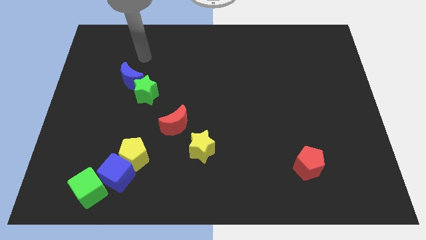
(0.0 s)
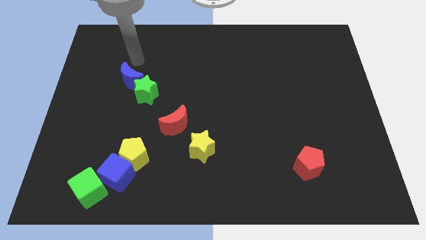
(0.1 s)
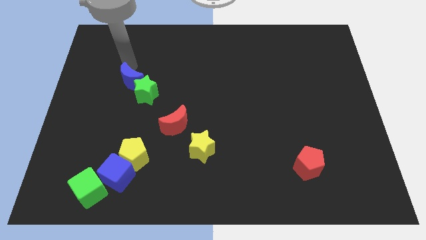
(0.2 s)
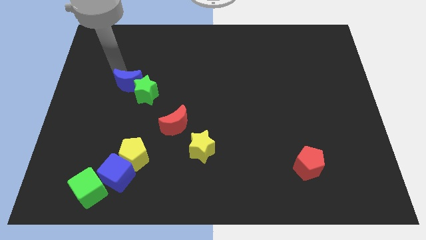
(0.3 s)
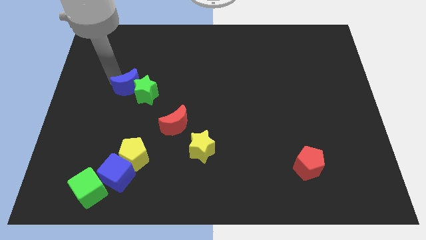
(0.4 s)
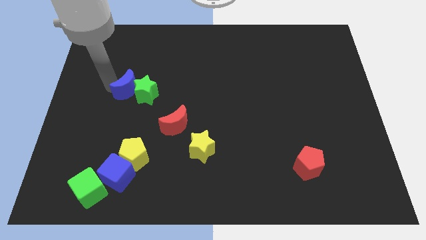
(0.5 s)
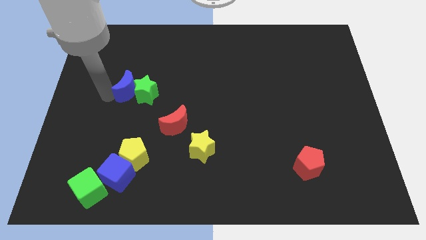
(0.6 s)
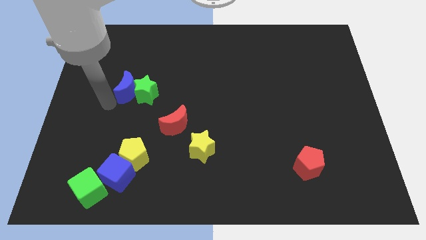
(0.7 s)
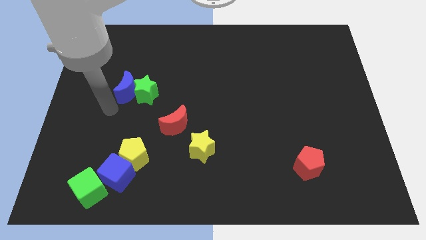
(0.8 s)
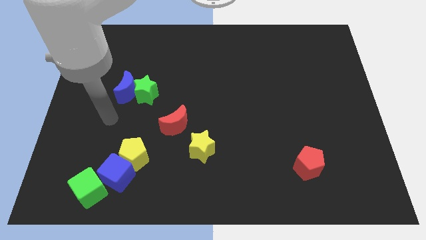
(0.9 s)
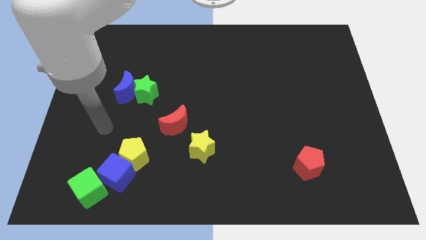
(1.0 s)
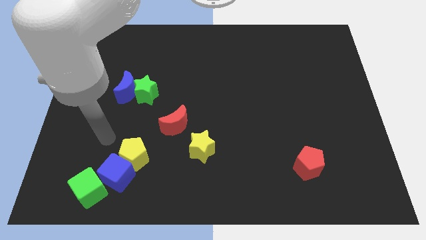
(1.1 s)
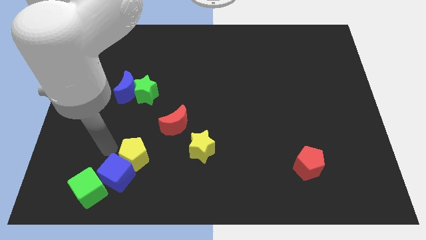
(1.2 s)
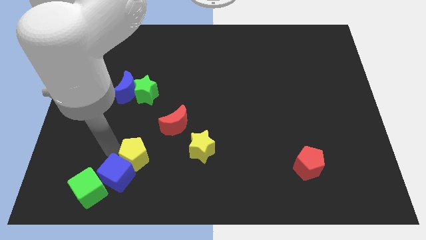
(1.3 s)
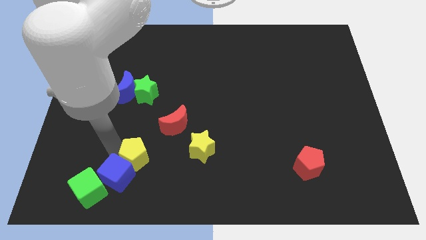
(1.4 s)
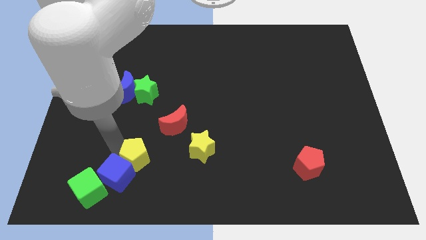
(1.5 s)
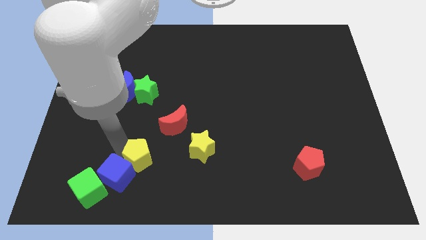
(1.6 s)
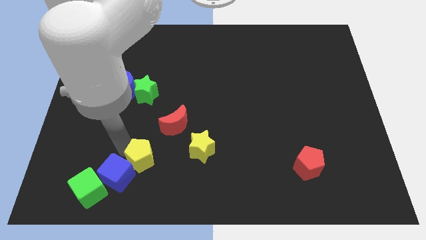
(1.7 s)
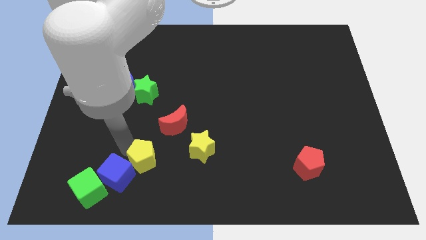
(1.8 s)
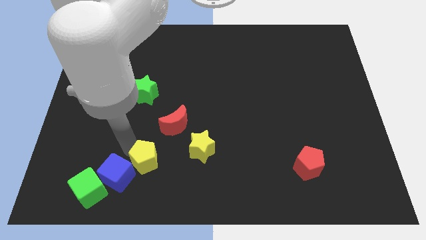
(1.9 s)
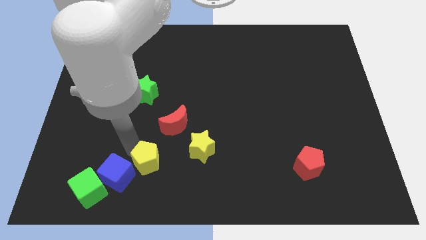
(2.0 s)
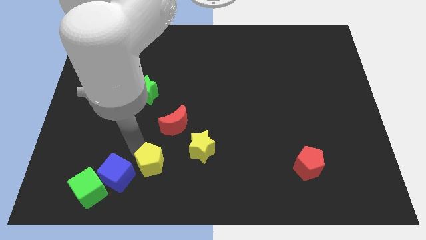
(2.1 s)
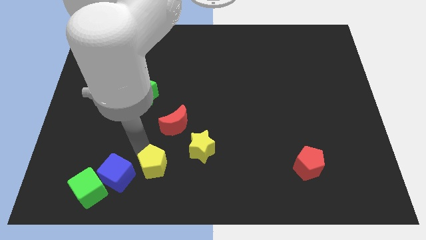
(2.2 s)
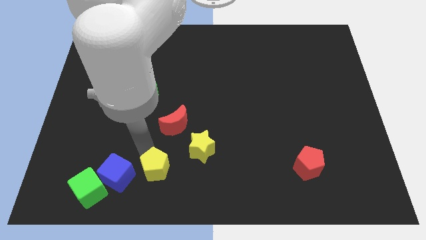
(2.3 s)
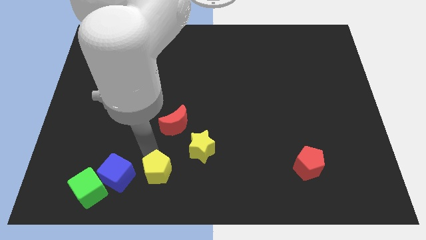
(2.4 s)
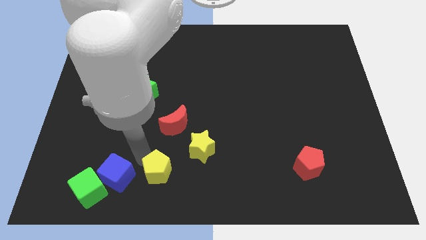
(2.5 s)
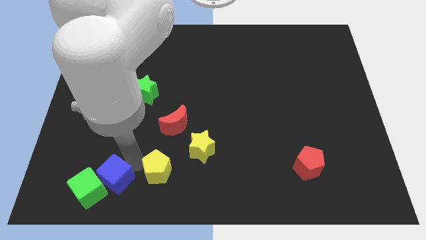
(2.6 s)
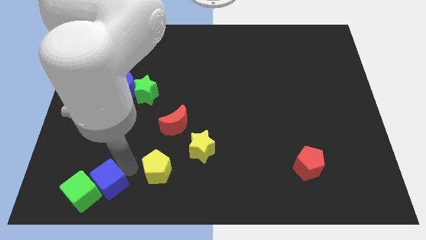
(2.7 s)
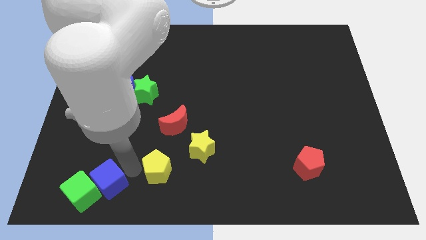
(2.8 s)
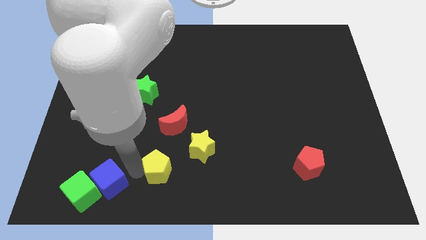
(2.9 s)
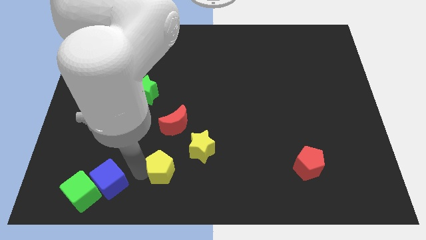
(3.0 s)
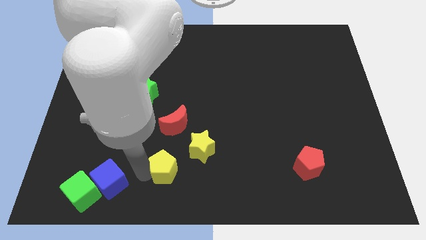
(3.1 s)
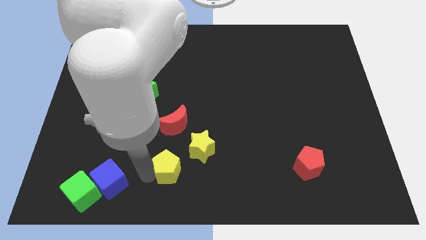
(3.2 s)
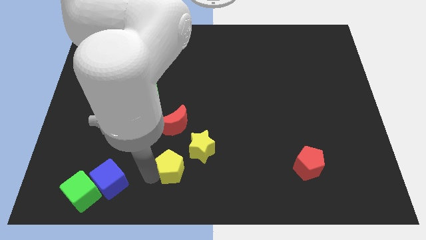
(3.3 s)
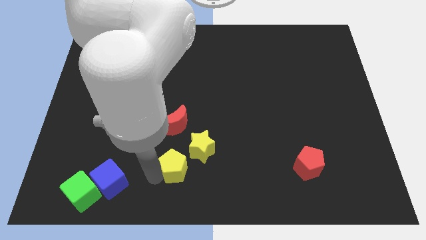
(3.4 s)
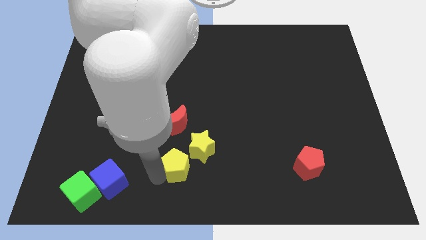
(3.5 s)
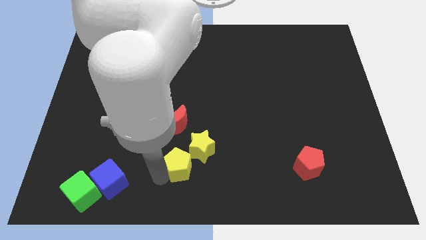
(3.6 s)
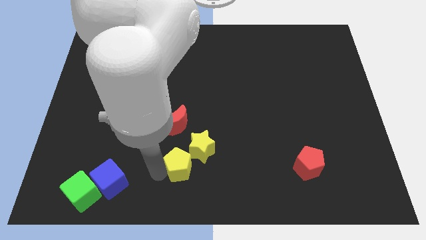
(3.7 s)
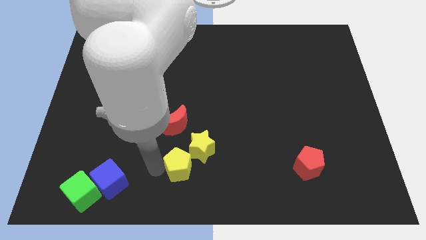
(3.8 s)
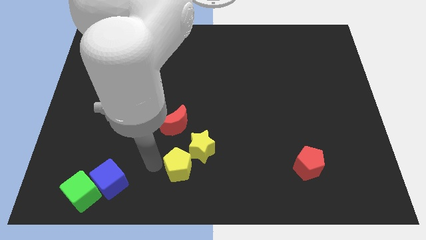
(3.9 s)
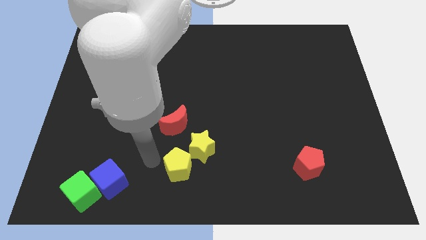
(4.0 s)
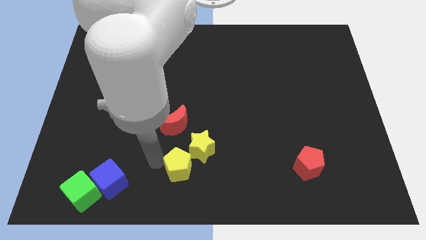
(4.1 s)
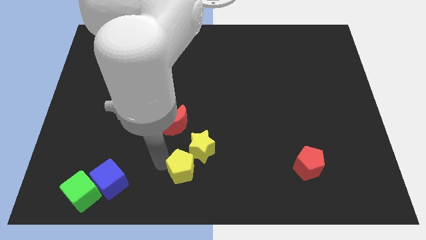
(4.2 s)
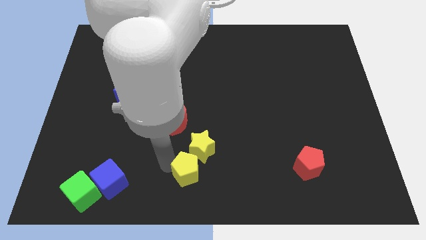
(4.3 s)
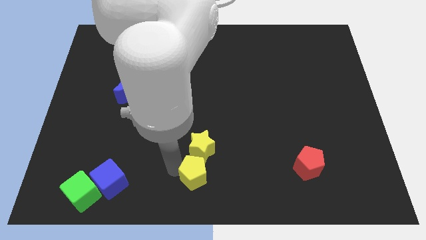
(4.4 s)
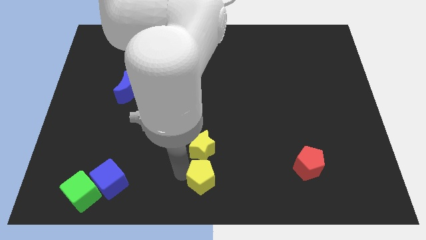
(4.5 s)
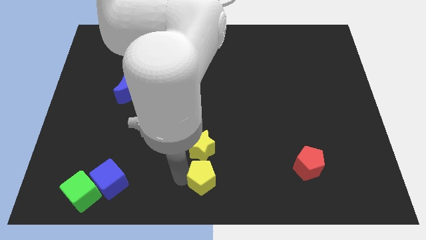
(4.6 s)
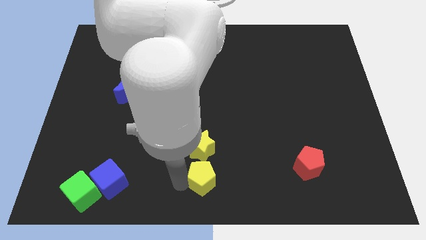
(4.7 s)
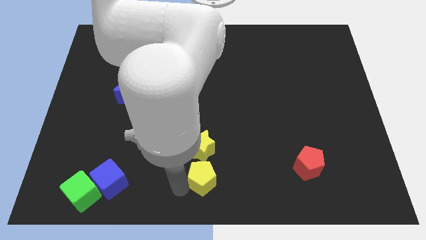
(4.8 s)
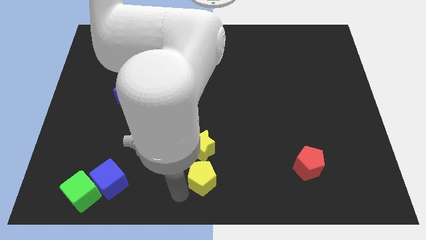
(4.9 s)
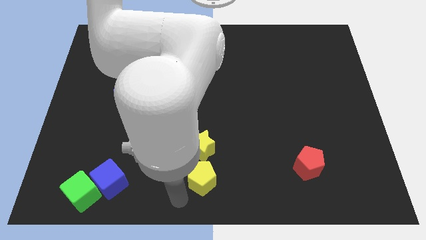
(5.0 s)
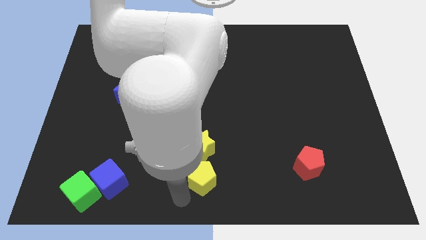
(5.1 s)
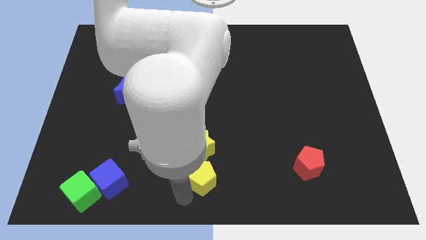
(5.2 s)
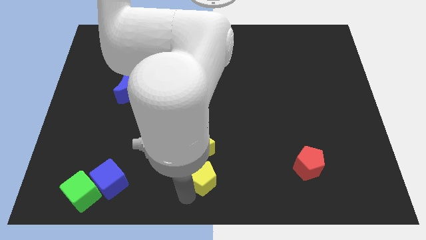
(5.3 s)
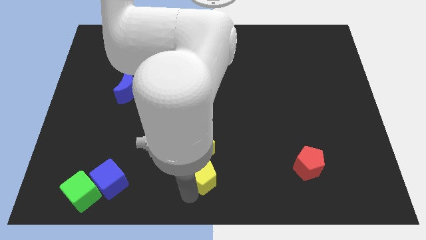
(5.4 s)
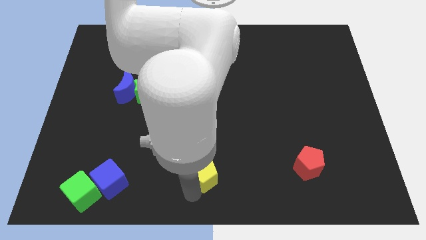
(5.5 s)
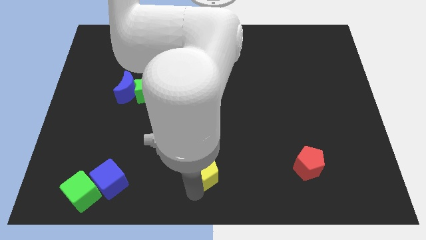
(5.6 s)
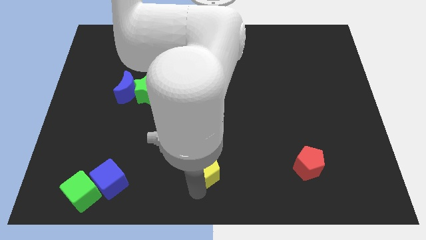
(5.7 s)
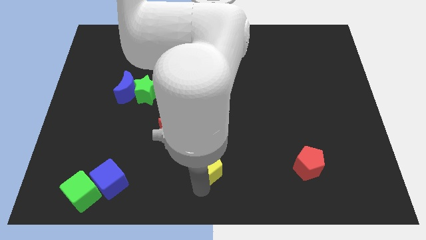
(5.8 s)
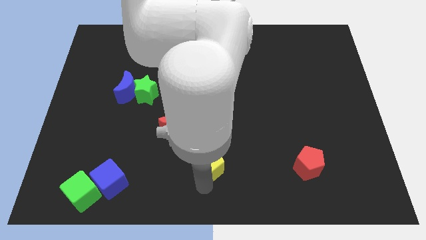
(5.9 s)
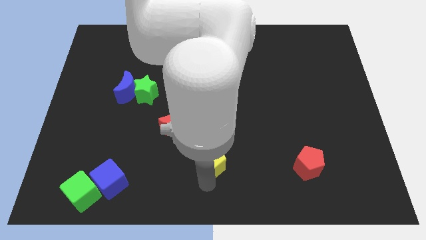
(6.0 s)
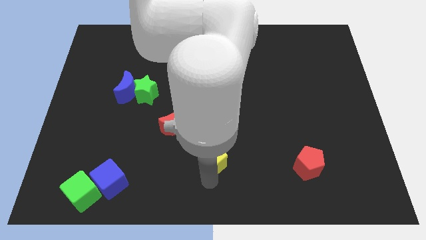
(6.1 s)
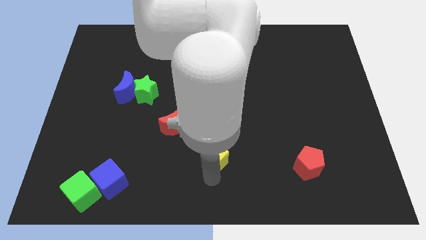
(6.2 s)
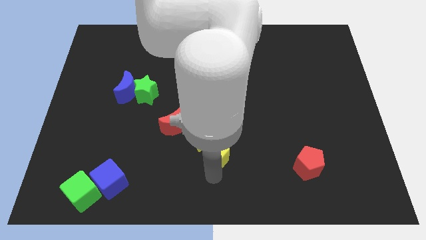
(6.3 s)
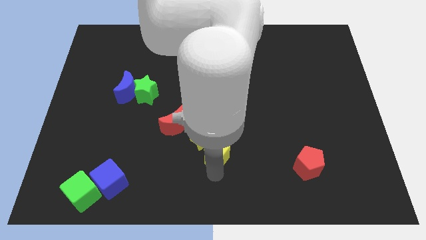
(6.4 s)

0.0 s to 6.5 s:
move the yellow pentagon to the right side of the yellow star

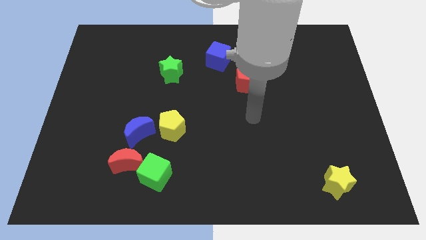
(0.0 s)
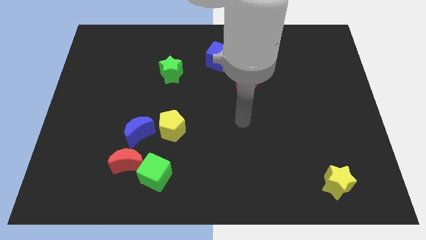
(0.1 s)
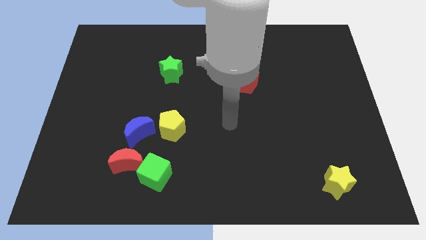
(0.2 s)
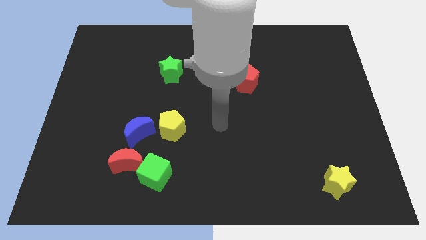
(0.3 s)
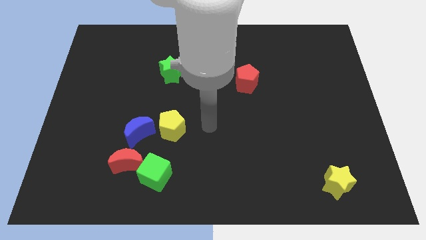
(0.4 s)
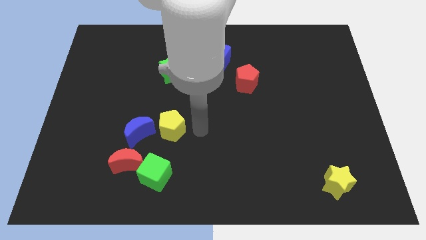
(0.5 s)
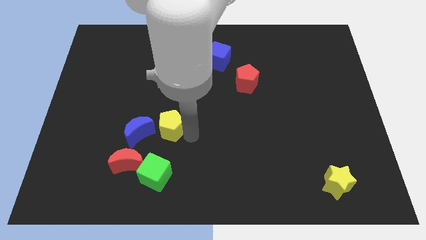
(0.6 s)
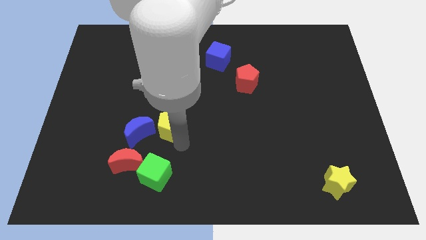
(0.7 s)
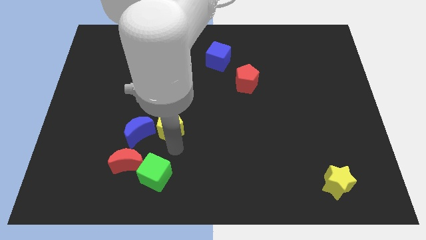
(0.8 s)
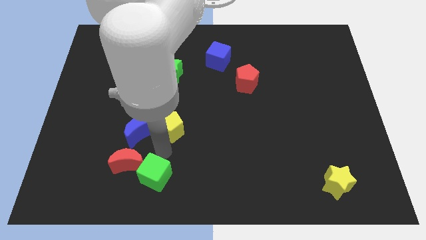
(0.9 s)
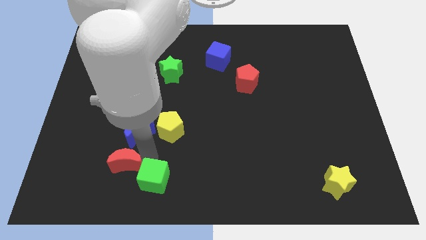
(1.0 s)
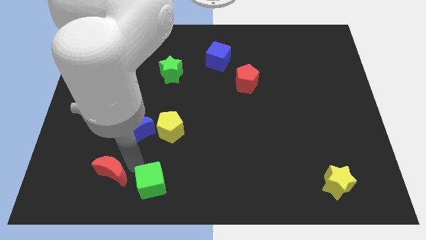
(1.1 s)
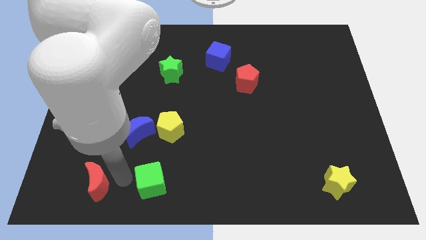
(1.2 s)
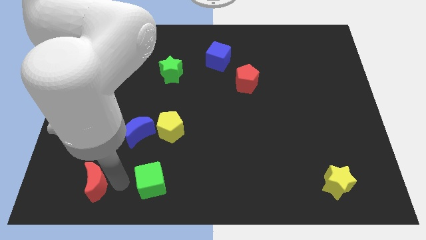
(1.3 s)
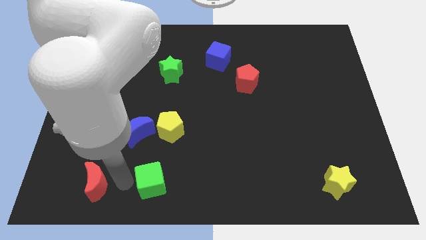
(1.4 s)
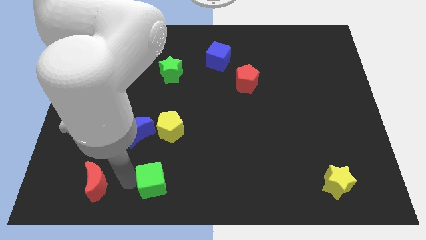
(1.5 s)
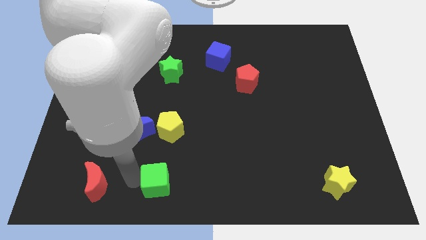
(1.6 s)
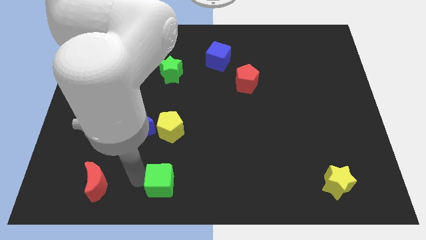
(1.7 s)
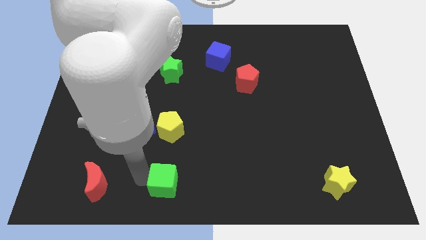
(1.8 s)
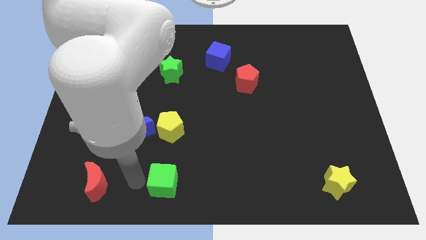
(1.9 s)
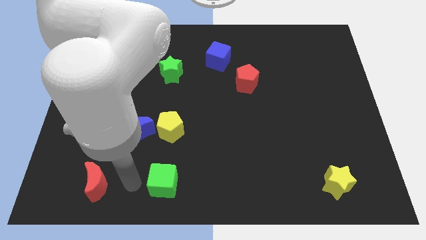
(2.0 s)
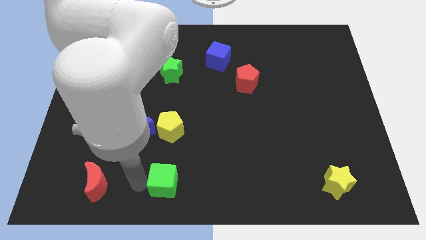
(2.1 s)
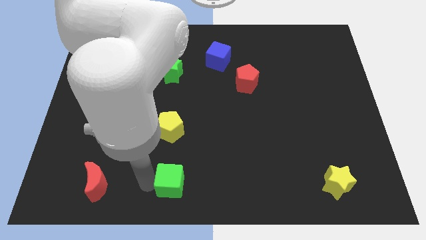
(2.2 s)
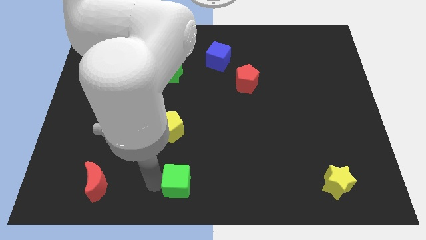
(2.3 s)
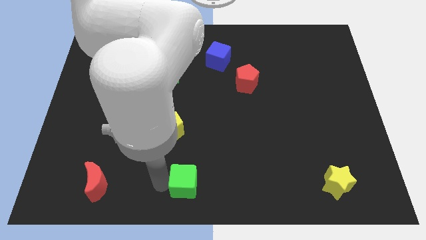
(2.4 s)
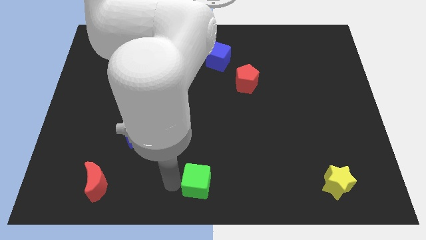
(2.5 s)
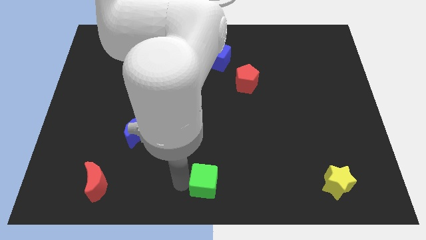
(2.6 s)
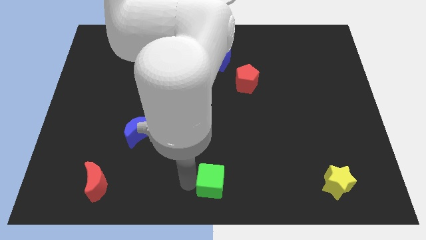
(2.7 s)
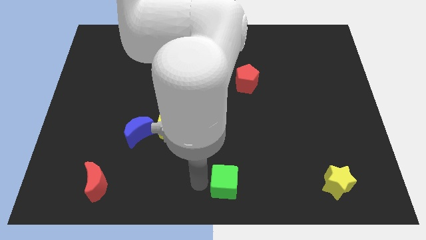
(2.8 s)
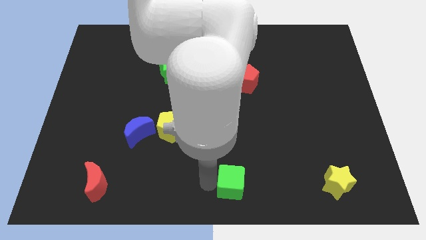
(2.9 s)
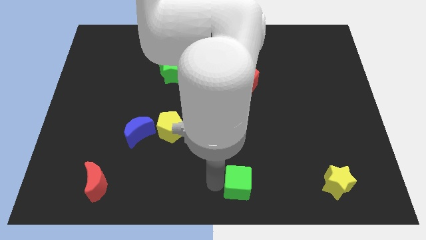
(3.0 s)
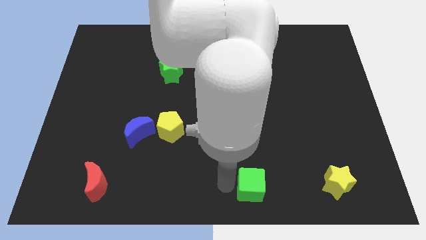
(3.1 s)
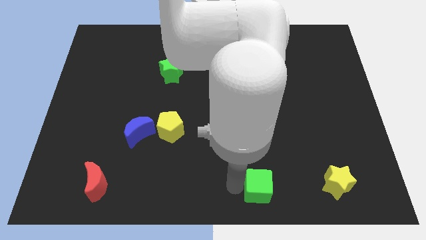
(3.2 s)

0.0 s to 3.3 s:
move the green cube left of the yellow star
